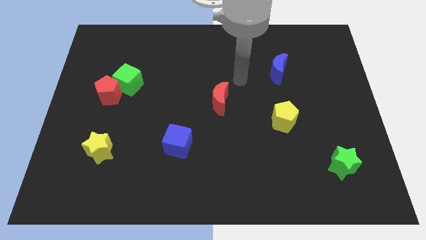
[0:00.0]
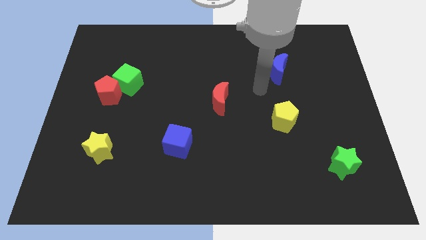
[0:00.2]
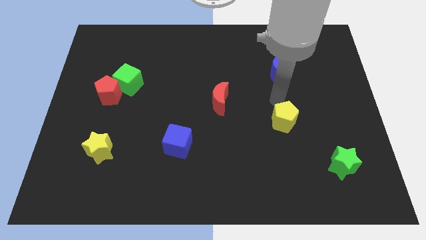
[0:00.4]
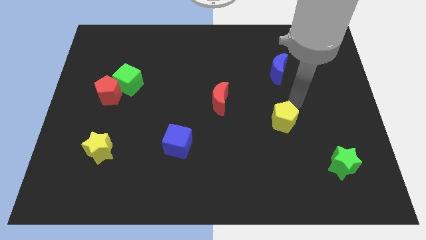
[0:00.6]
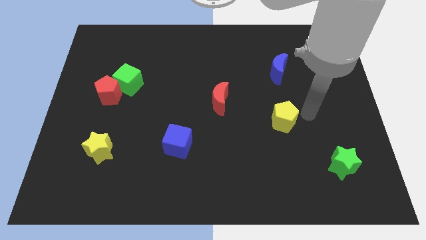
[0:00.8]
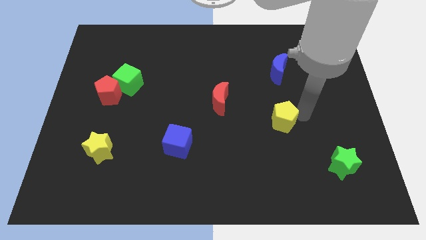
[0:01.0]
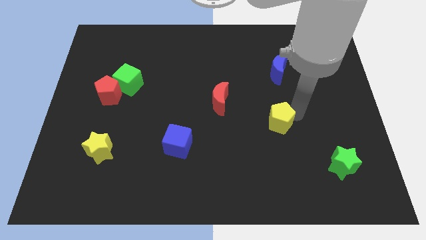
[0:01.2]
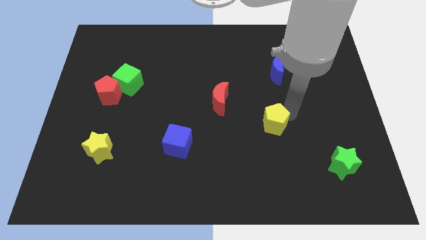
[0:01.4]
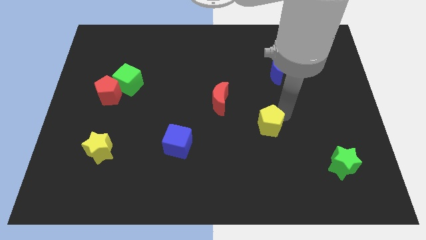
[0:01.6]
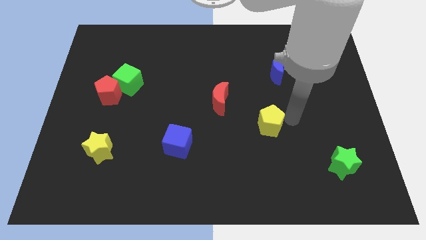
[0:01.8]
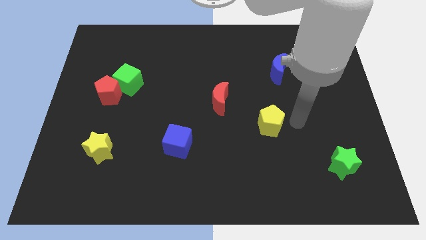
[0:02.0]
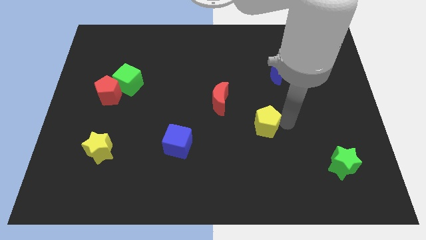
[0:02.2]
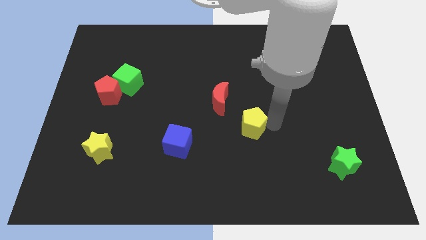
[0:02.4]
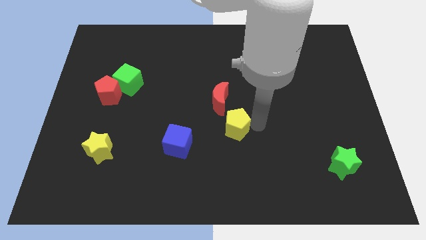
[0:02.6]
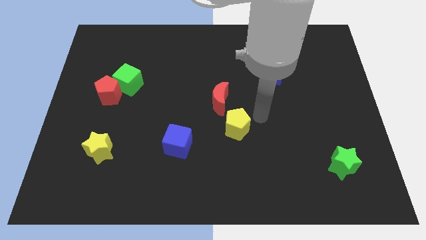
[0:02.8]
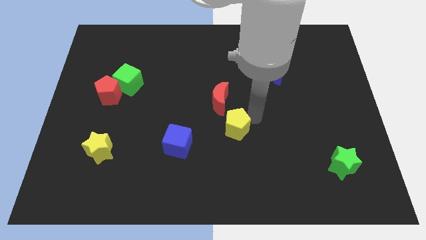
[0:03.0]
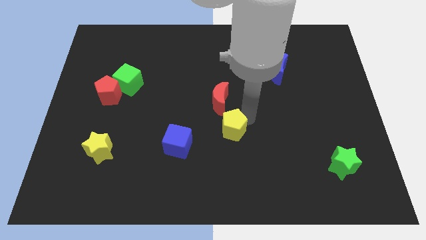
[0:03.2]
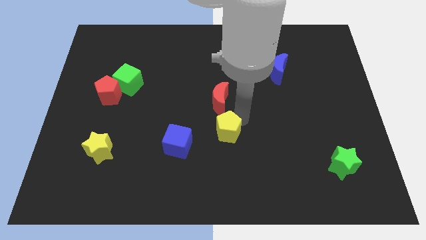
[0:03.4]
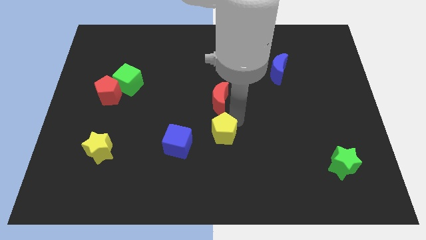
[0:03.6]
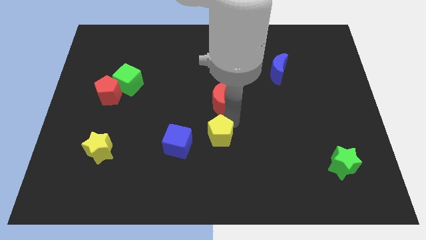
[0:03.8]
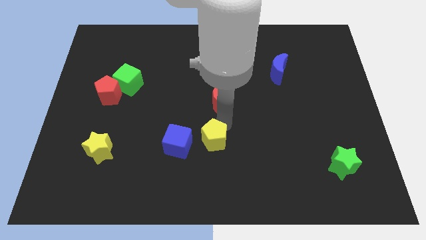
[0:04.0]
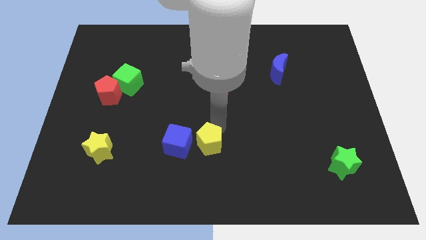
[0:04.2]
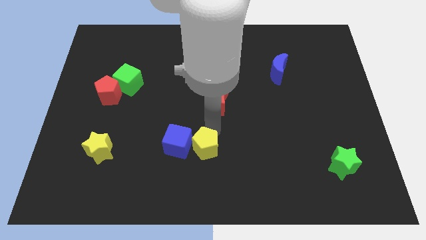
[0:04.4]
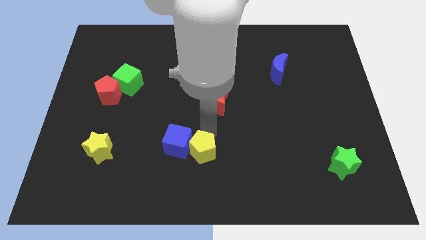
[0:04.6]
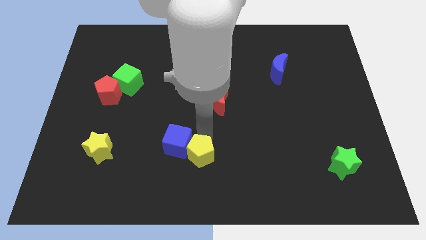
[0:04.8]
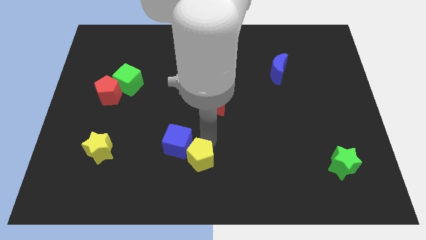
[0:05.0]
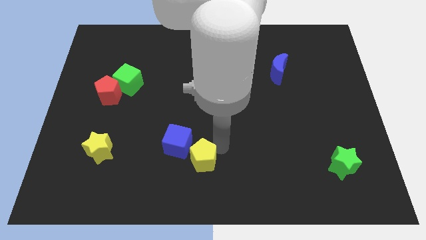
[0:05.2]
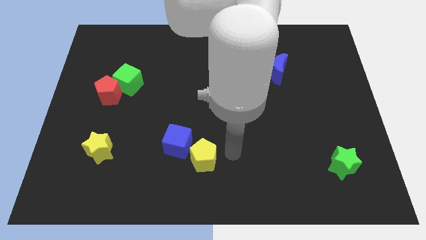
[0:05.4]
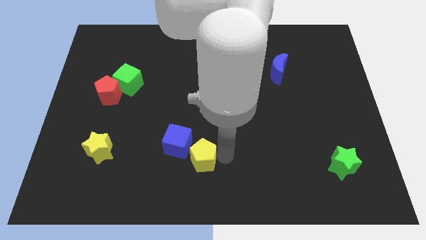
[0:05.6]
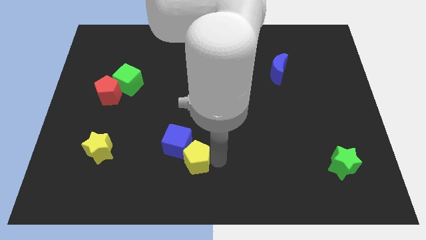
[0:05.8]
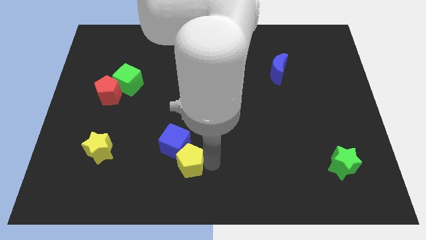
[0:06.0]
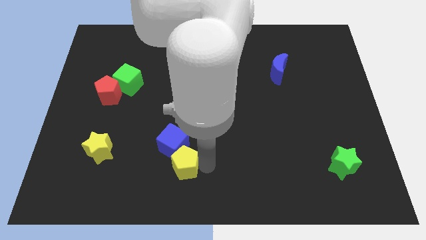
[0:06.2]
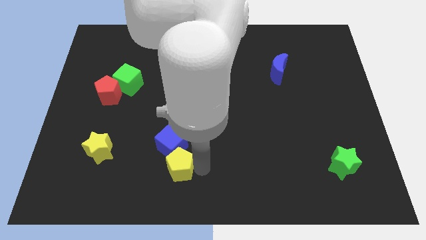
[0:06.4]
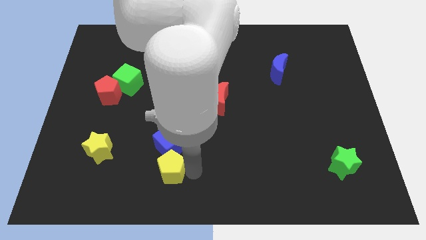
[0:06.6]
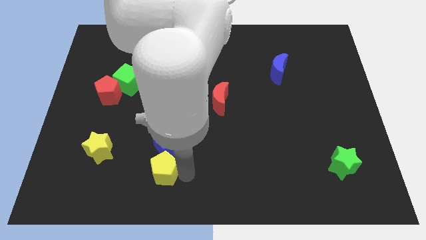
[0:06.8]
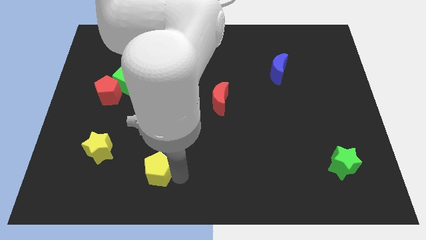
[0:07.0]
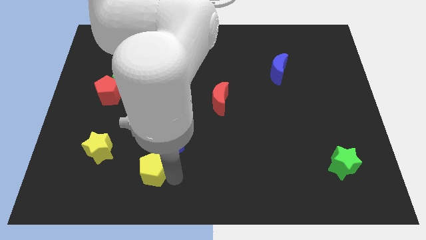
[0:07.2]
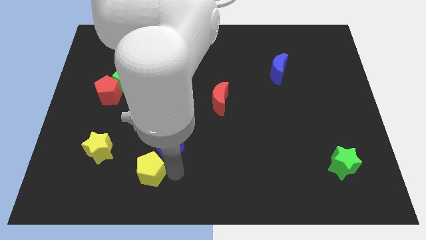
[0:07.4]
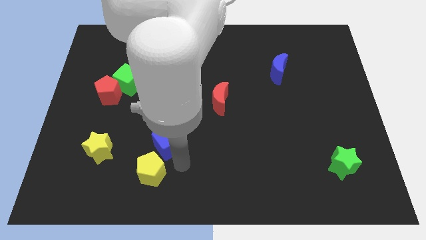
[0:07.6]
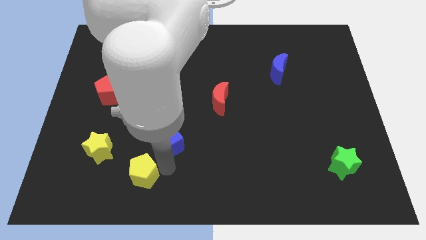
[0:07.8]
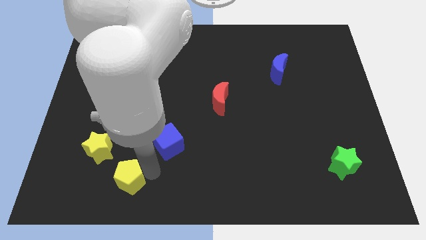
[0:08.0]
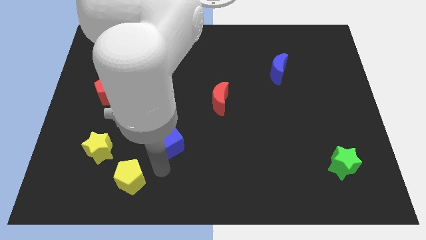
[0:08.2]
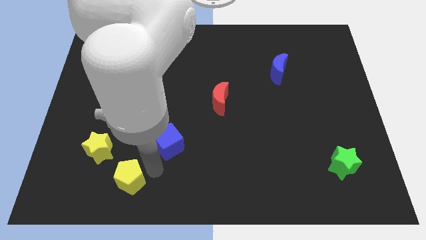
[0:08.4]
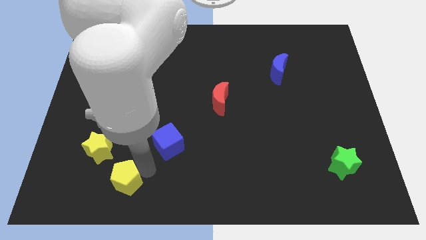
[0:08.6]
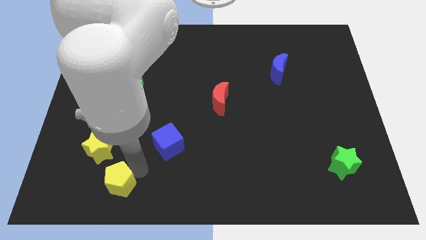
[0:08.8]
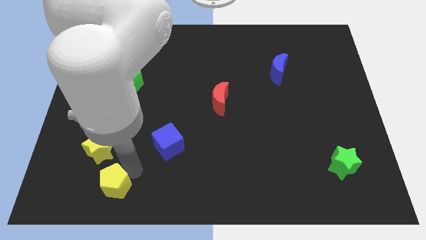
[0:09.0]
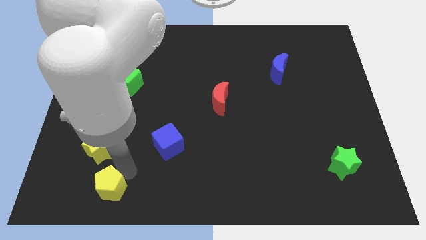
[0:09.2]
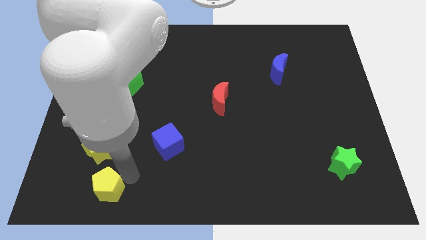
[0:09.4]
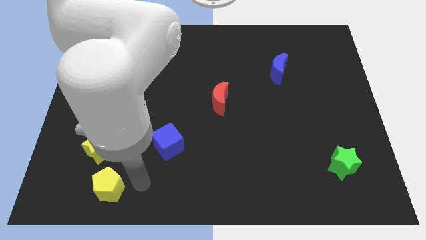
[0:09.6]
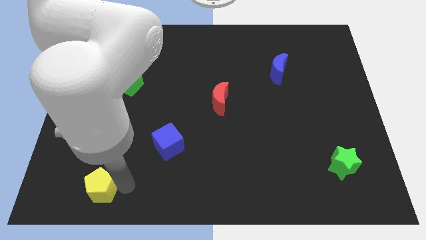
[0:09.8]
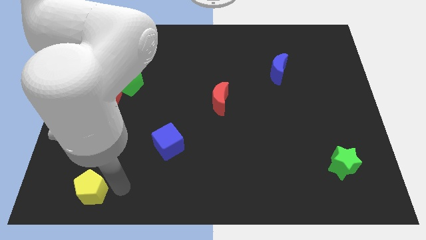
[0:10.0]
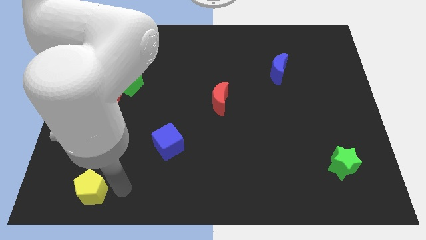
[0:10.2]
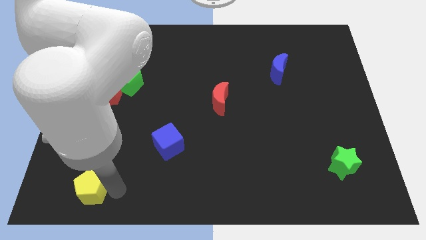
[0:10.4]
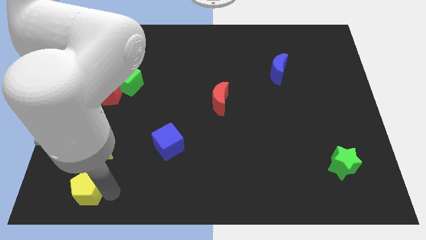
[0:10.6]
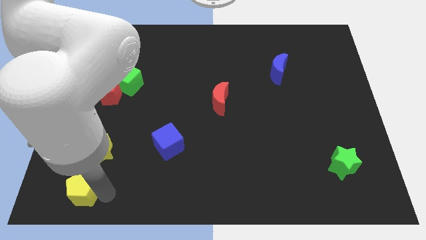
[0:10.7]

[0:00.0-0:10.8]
push the yellow pentagon to the bottom left corner

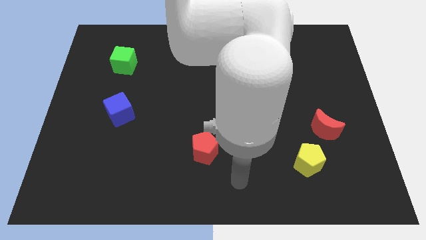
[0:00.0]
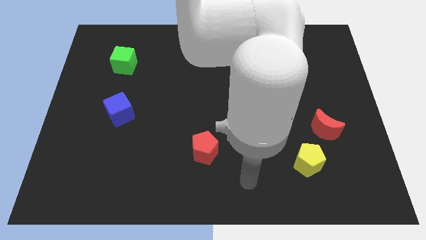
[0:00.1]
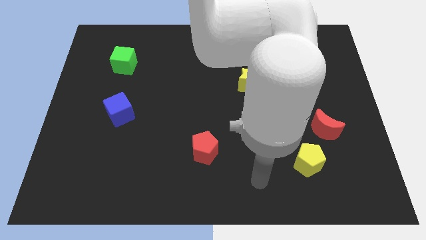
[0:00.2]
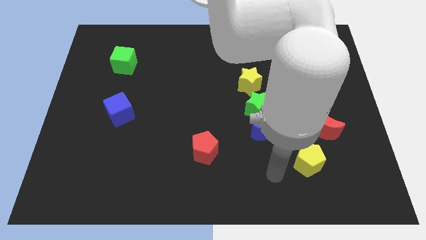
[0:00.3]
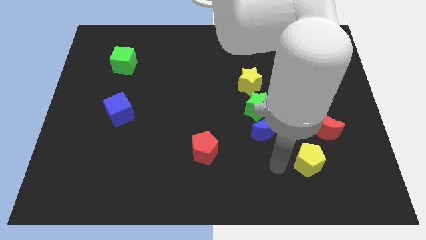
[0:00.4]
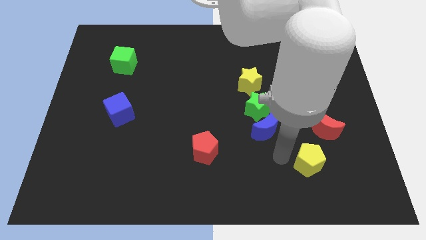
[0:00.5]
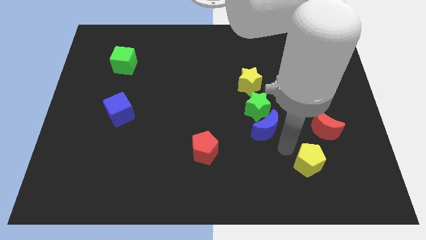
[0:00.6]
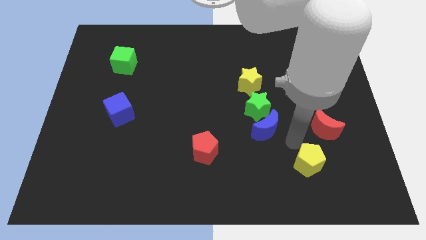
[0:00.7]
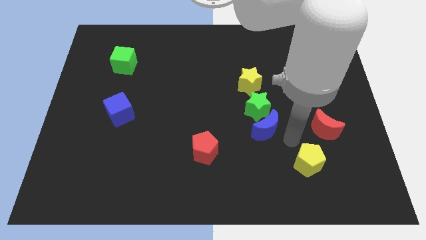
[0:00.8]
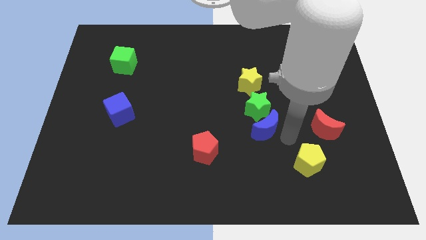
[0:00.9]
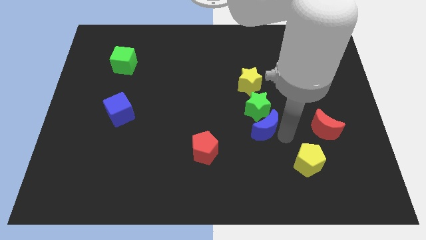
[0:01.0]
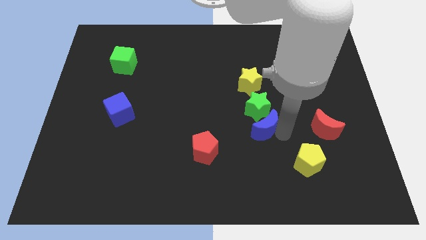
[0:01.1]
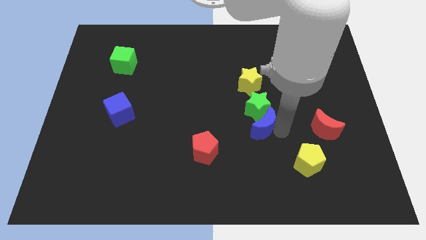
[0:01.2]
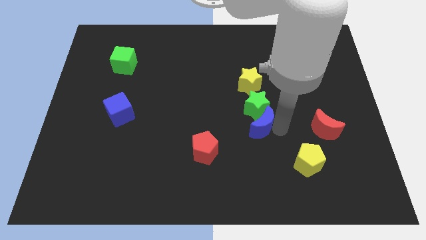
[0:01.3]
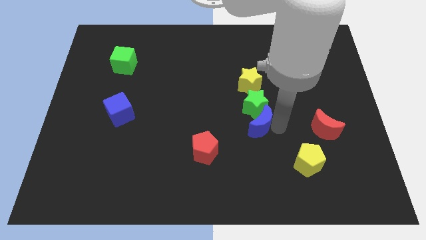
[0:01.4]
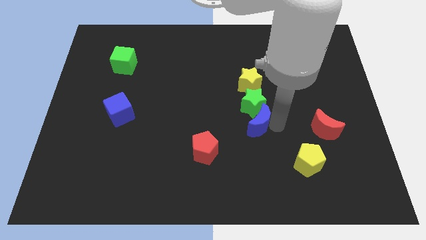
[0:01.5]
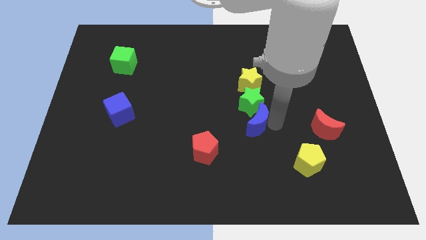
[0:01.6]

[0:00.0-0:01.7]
push the blue moon to the middle of the board
